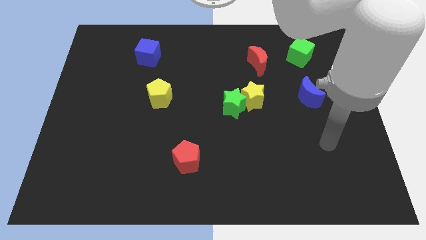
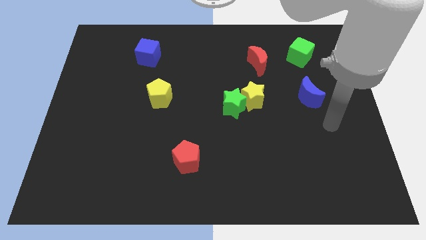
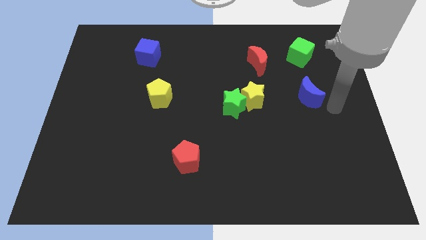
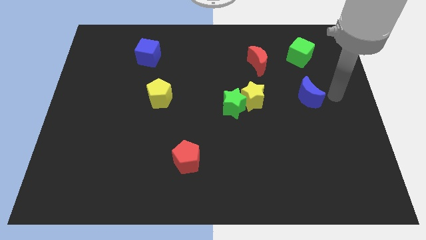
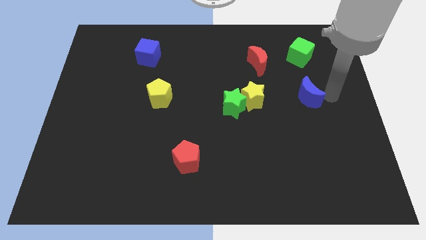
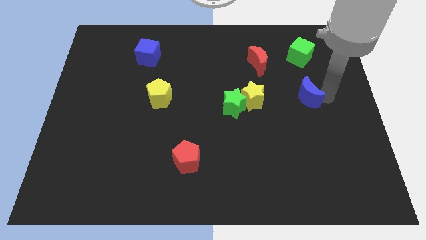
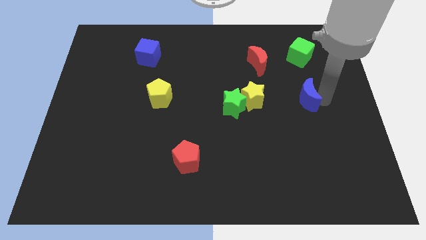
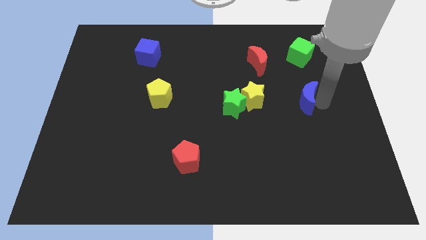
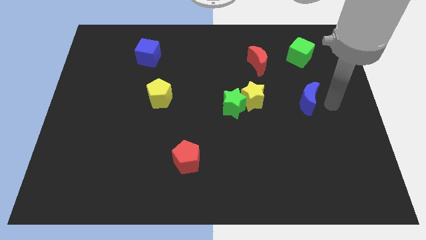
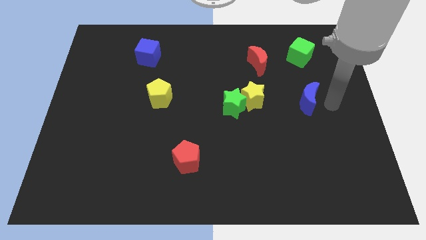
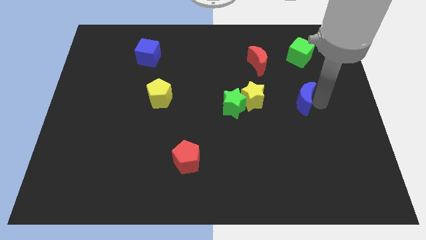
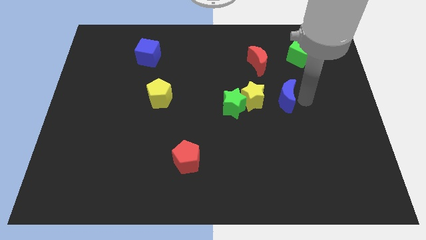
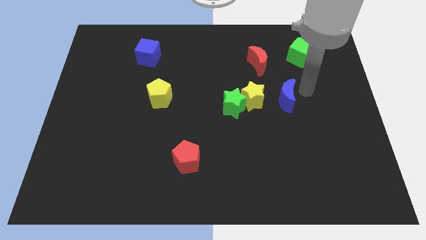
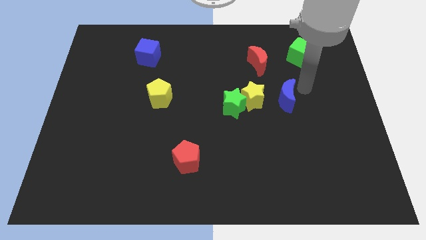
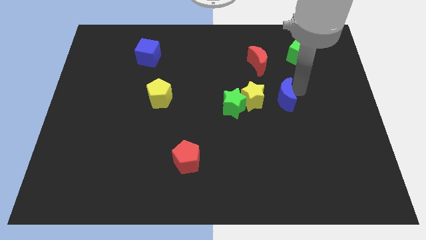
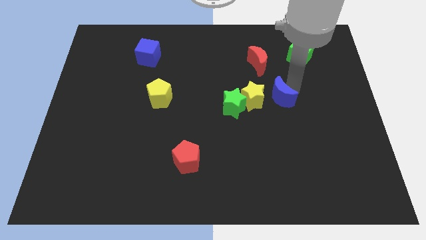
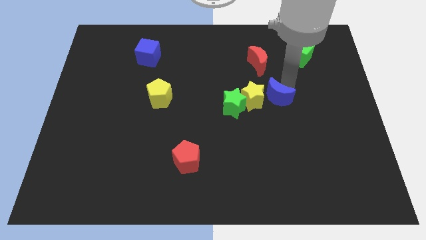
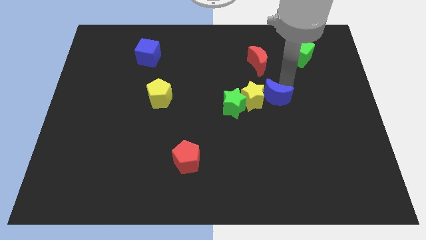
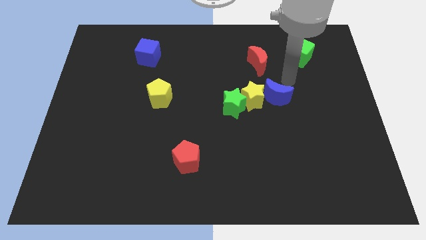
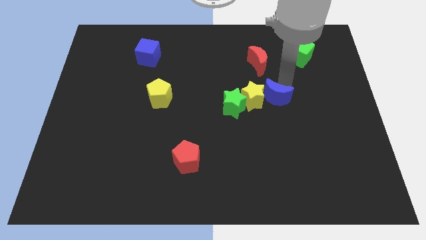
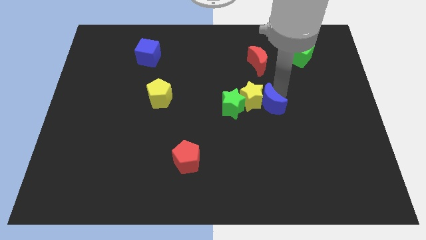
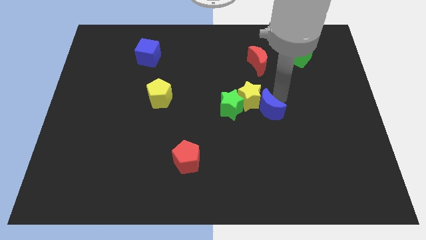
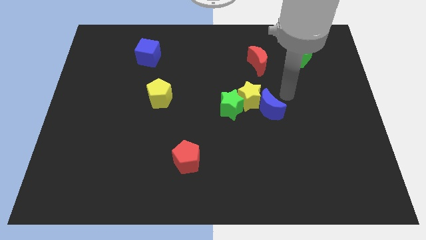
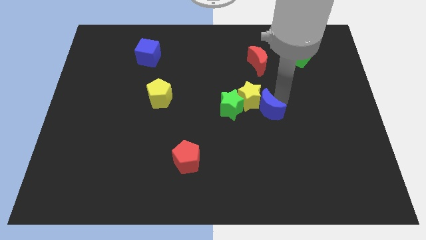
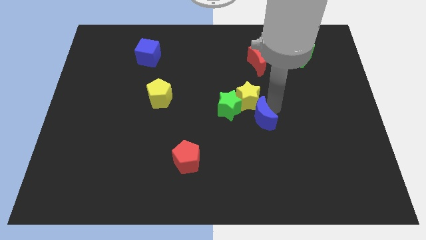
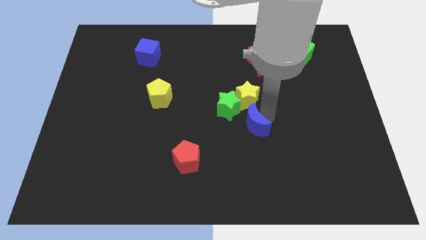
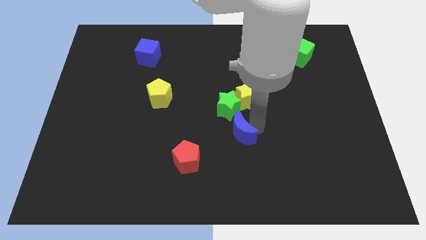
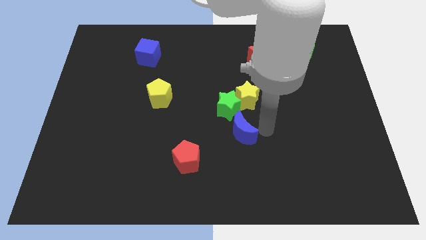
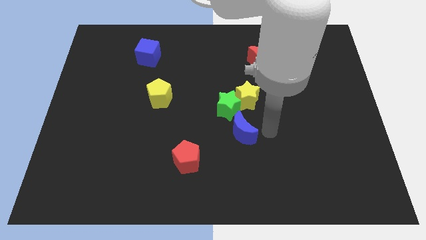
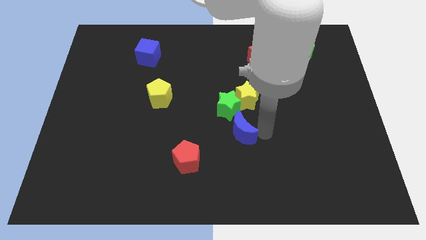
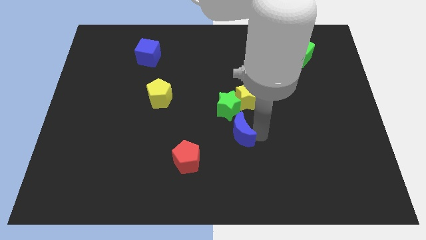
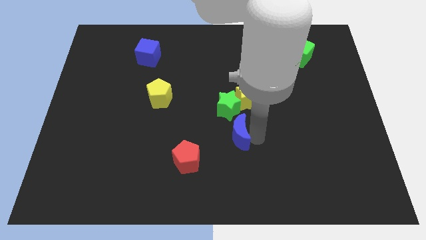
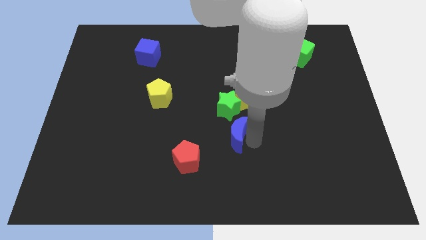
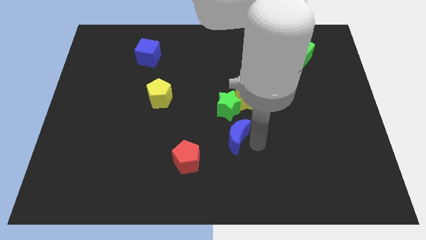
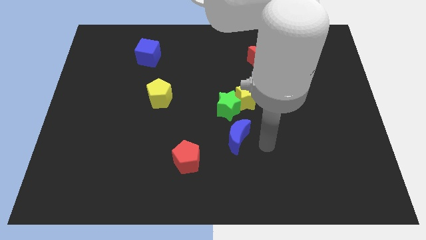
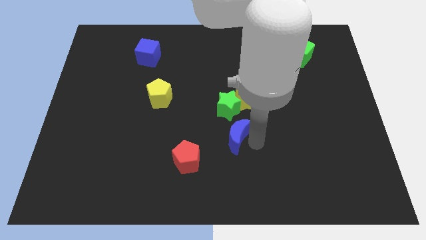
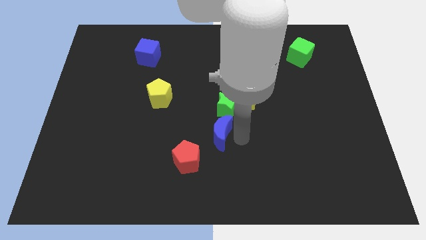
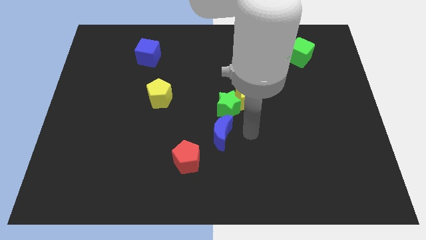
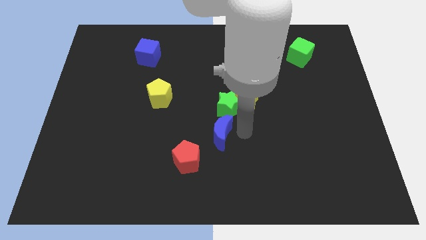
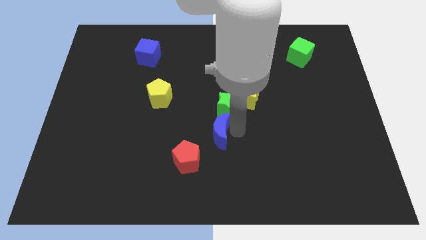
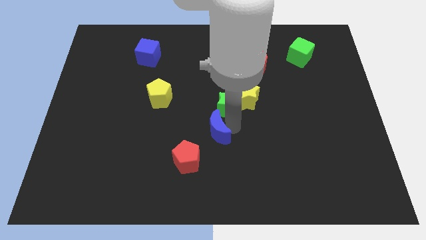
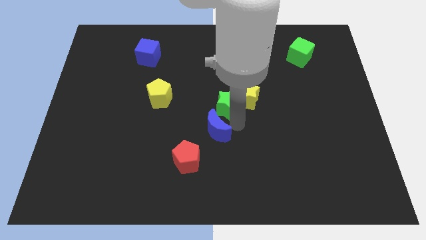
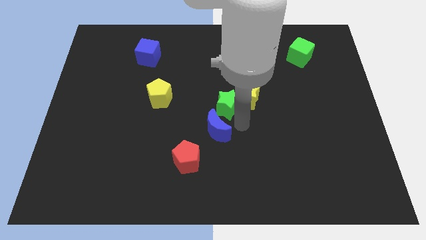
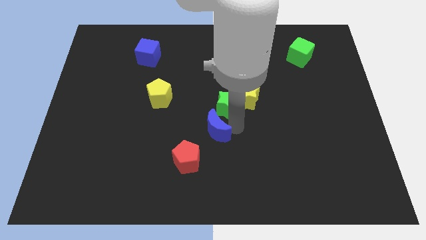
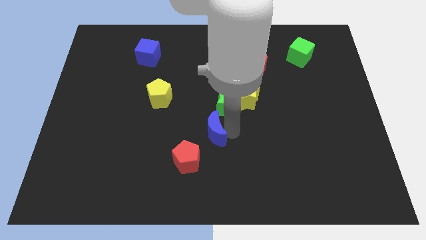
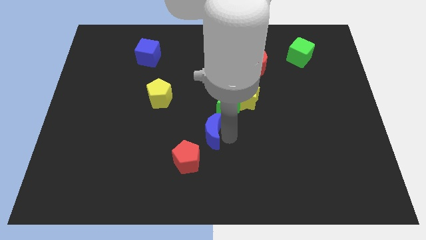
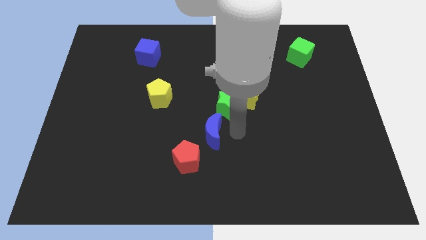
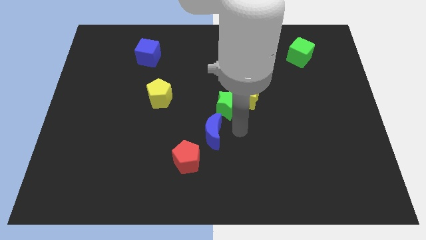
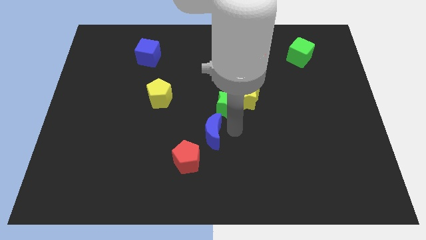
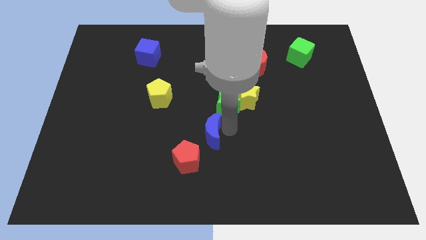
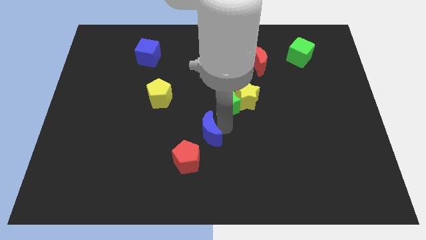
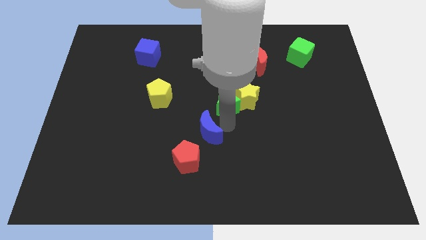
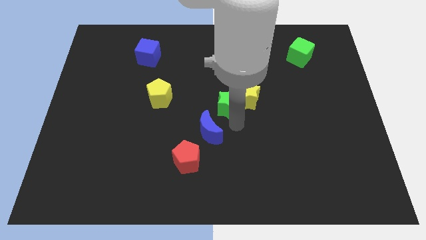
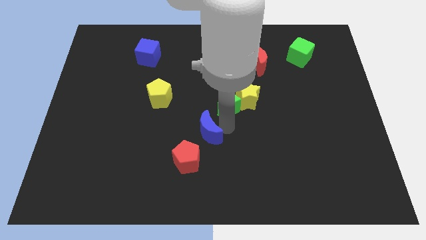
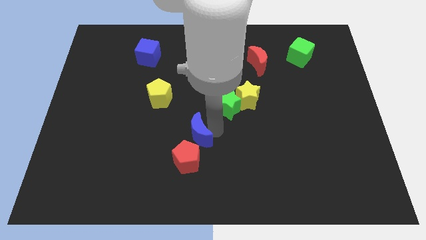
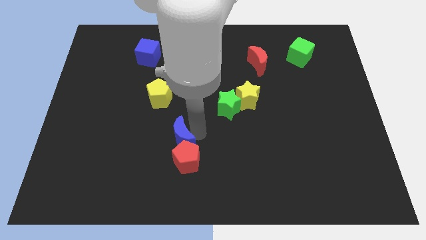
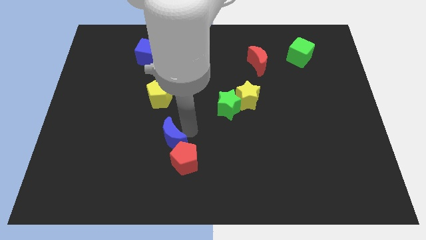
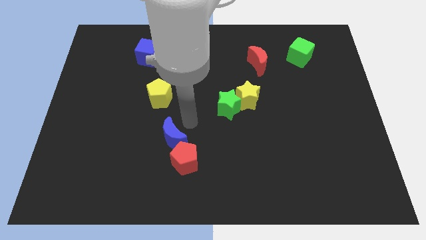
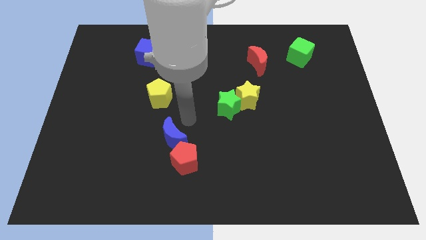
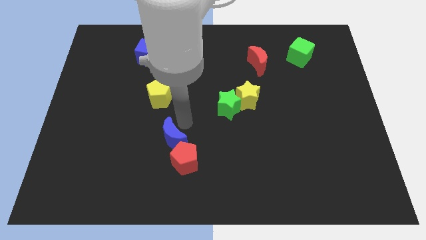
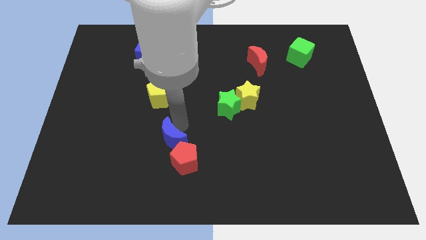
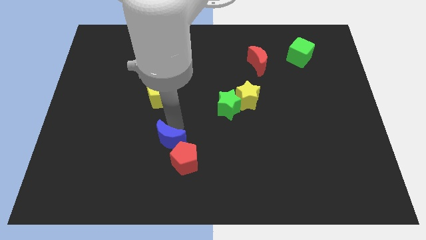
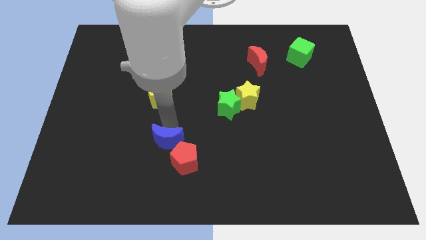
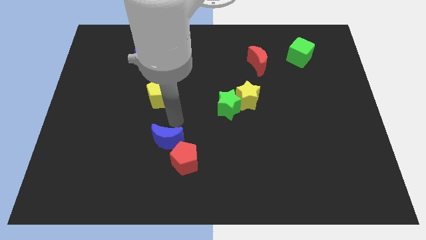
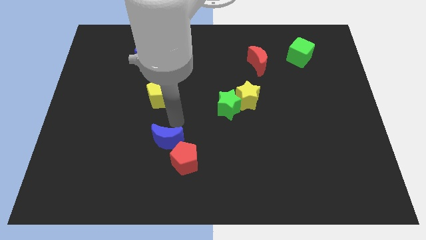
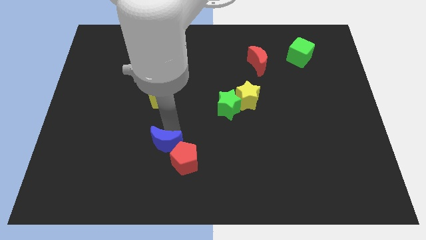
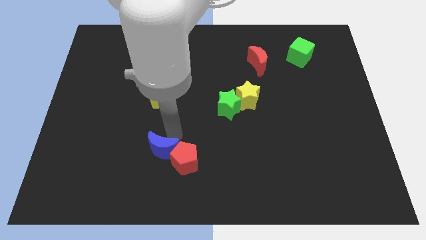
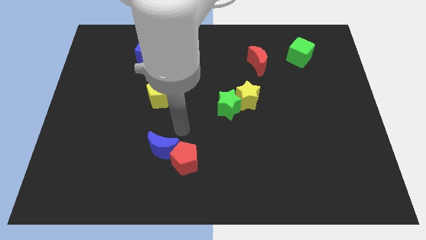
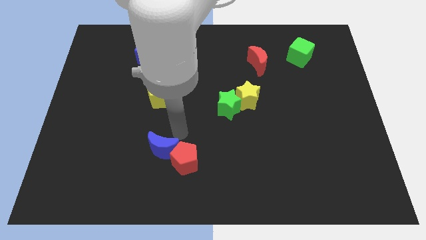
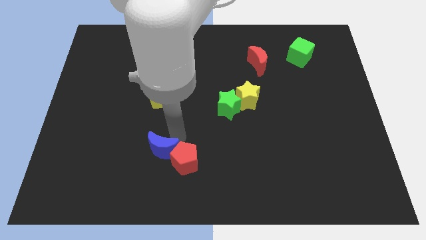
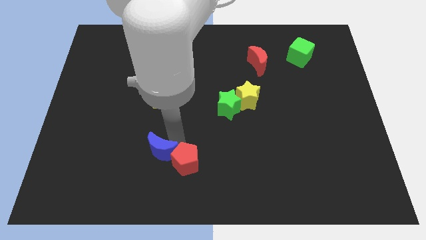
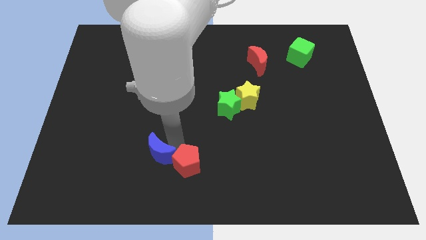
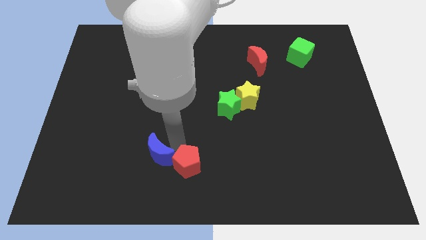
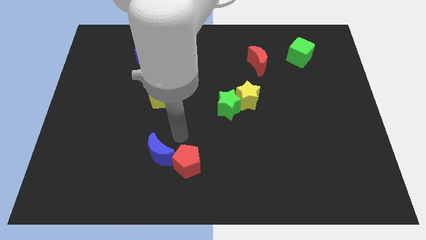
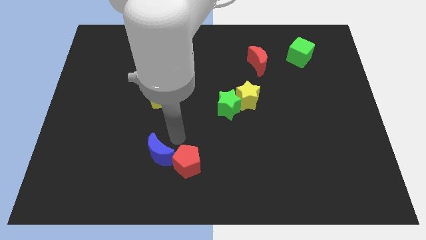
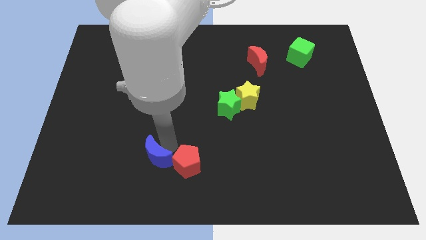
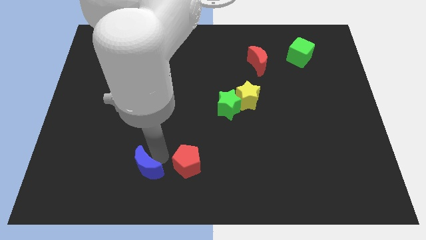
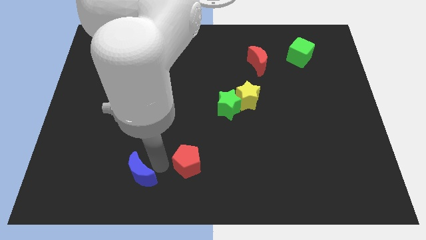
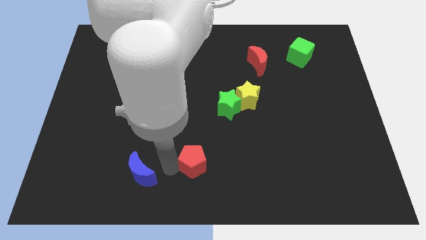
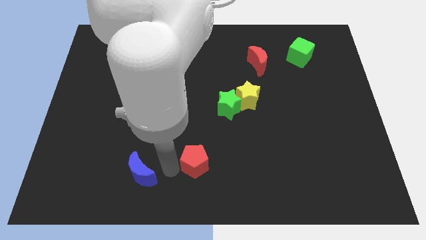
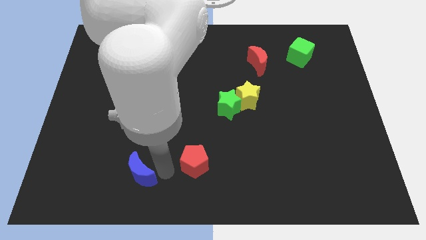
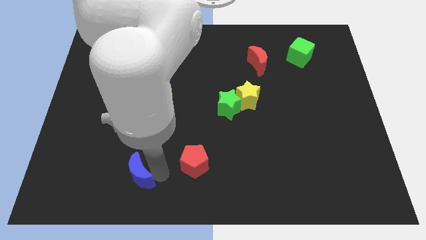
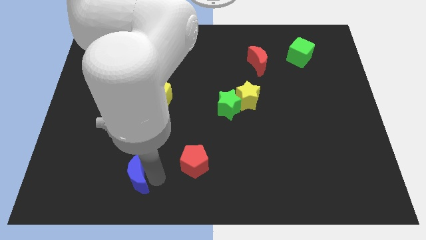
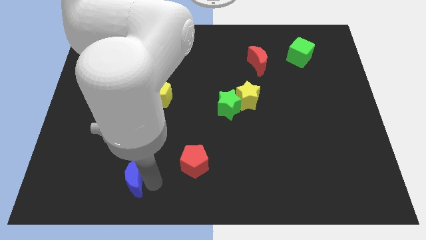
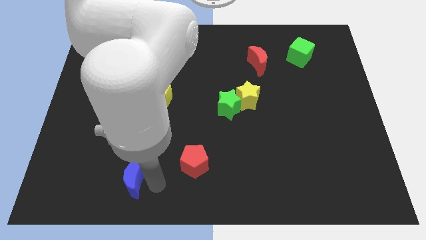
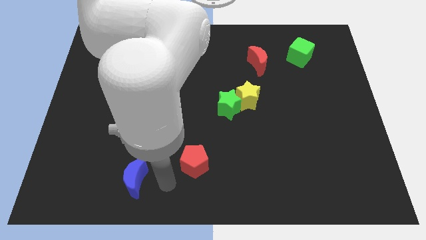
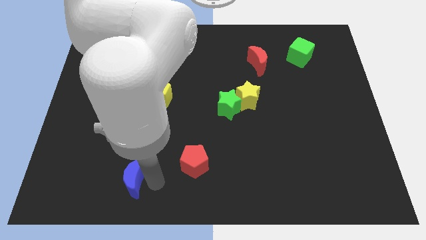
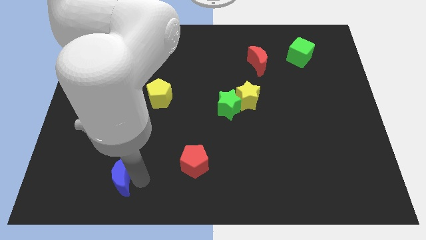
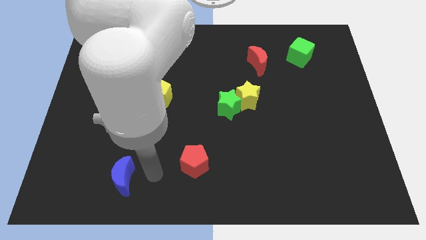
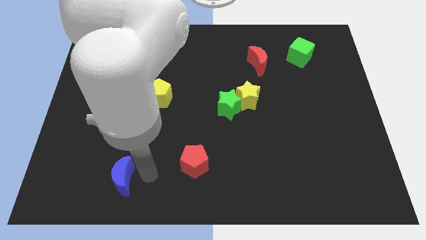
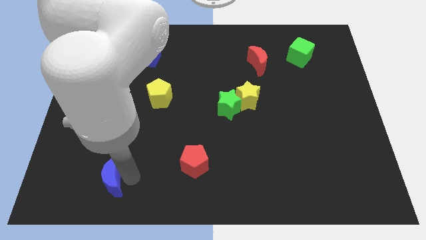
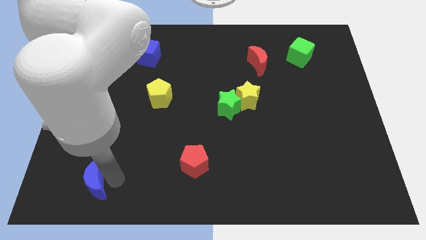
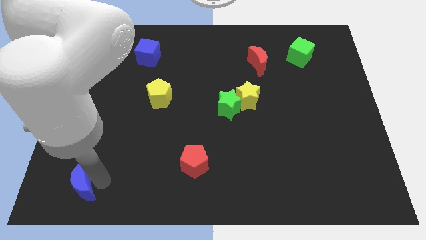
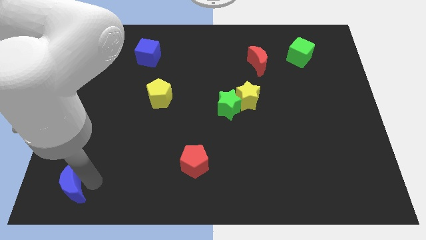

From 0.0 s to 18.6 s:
put the blue moon to the bottom left of the board
